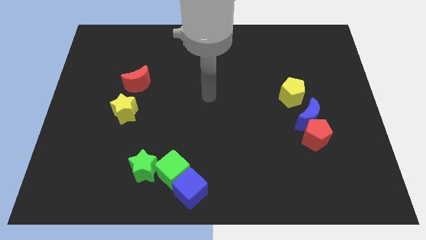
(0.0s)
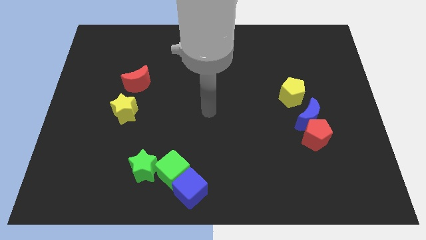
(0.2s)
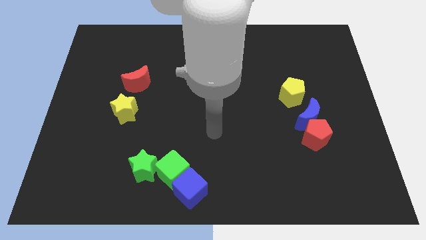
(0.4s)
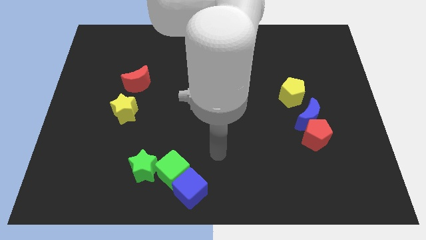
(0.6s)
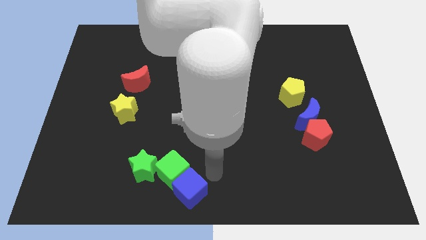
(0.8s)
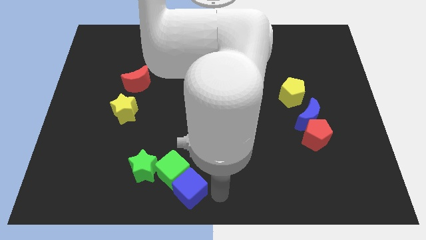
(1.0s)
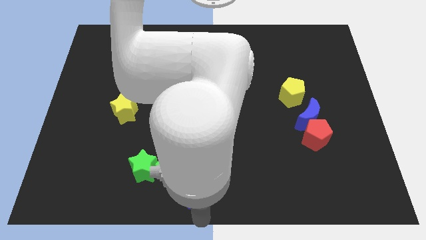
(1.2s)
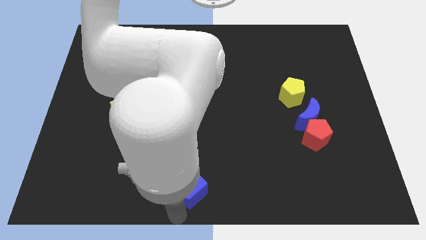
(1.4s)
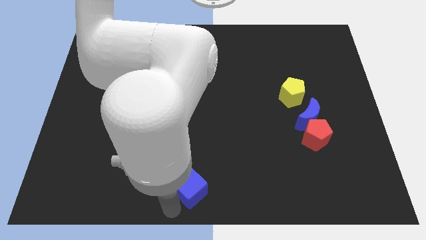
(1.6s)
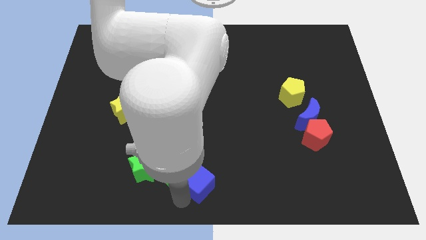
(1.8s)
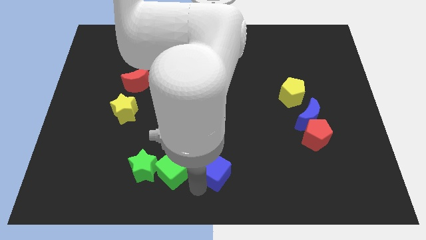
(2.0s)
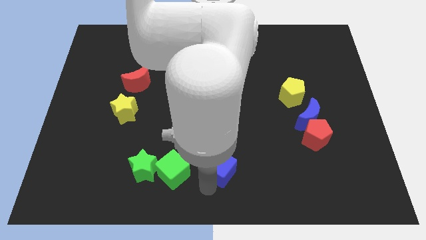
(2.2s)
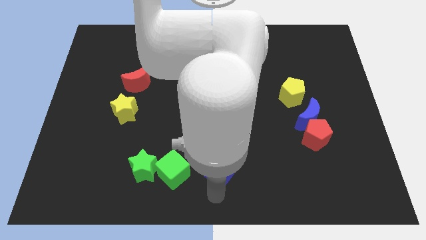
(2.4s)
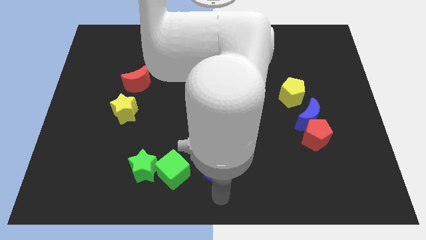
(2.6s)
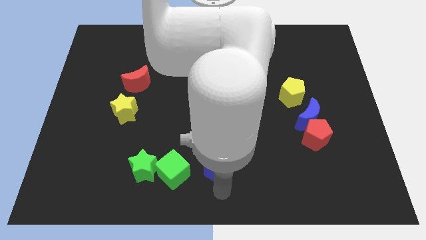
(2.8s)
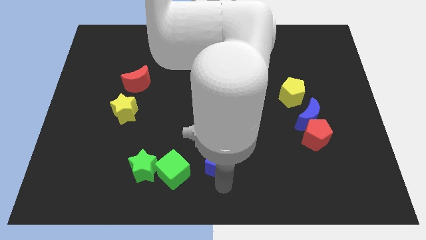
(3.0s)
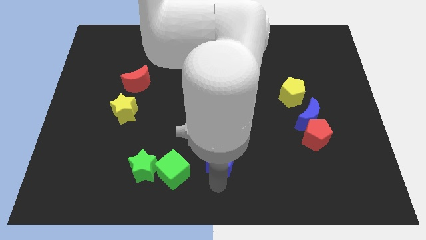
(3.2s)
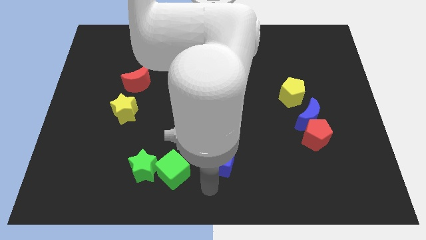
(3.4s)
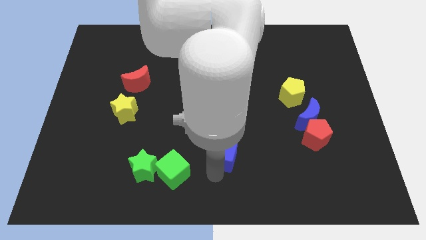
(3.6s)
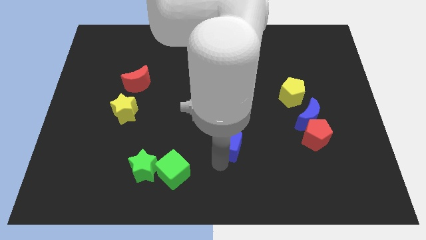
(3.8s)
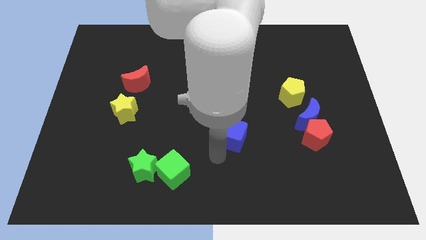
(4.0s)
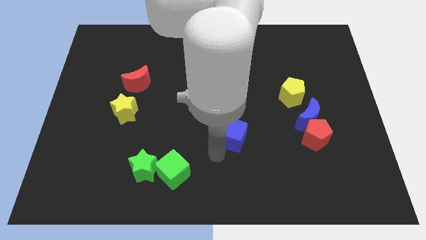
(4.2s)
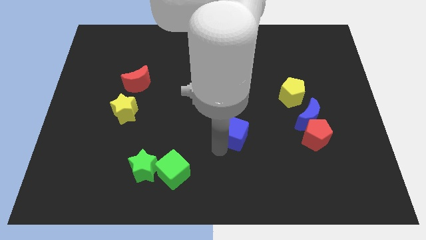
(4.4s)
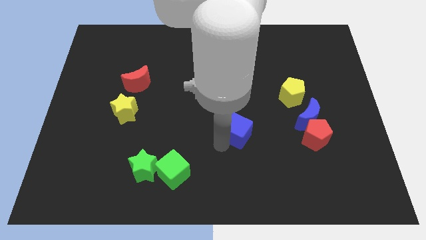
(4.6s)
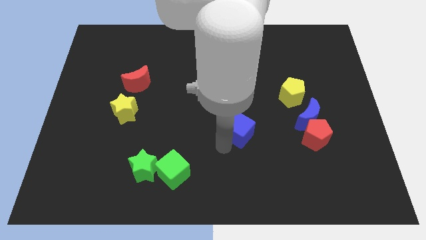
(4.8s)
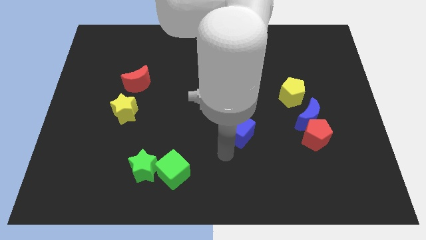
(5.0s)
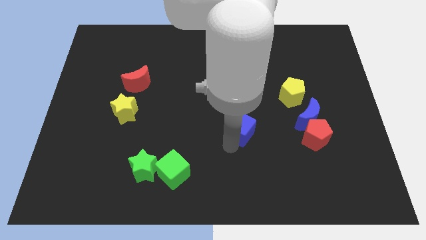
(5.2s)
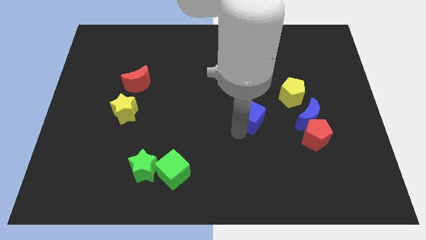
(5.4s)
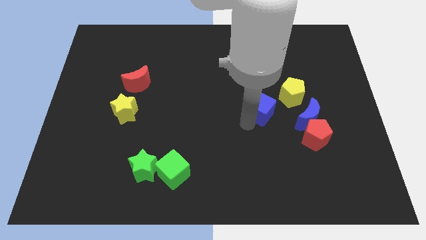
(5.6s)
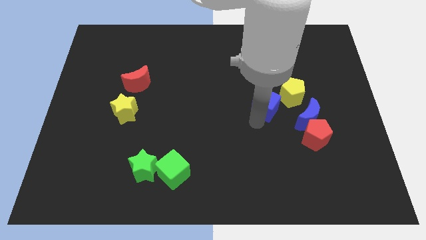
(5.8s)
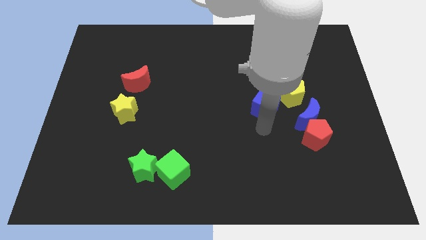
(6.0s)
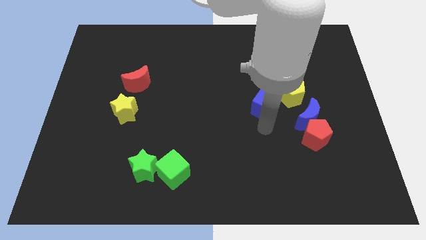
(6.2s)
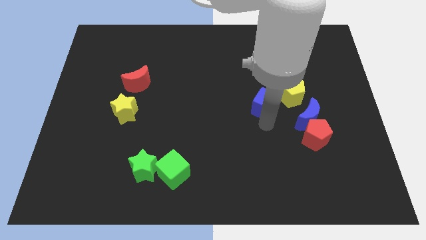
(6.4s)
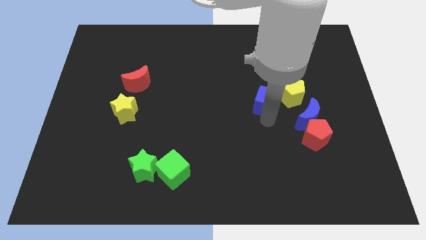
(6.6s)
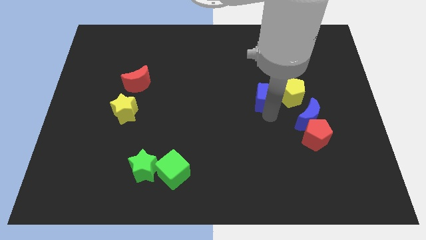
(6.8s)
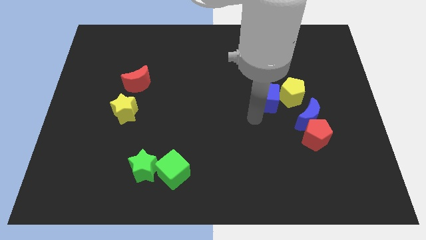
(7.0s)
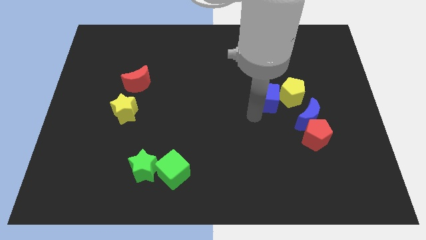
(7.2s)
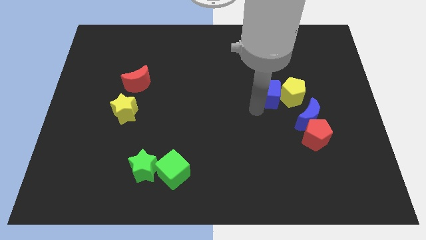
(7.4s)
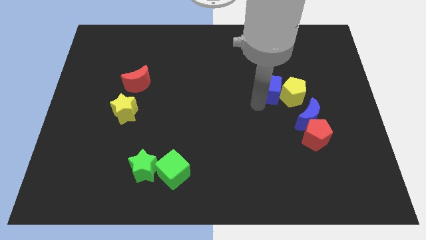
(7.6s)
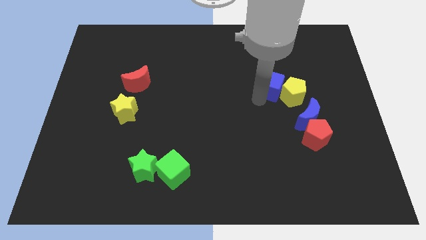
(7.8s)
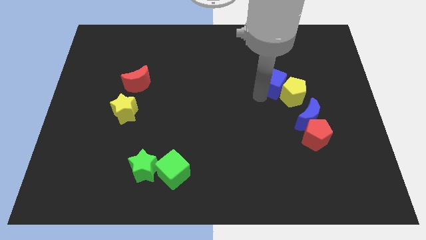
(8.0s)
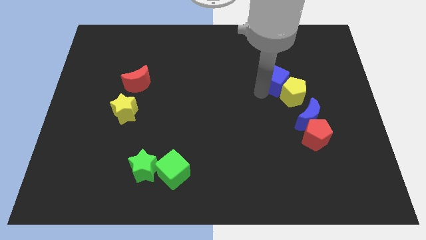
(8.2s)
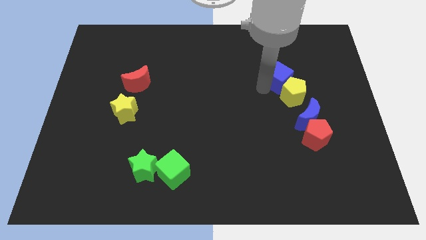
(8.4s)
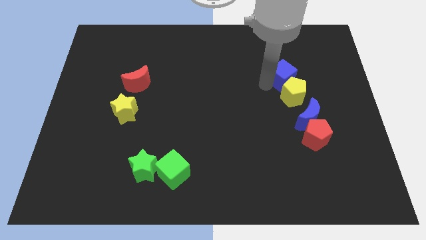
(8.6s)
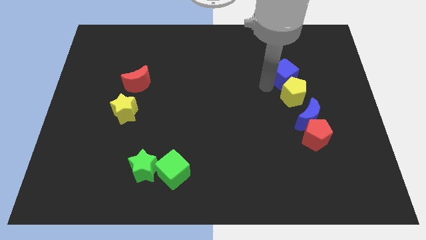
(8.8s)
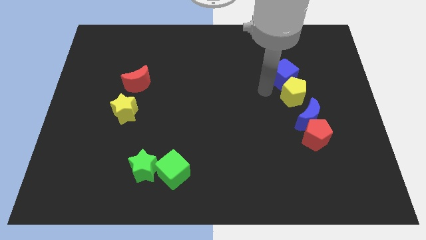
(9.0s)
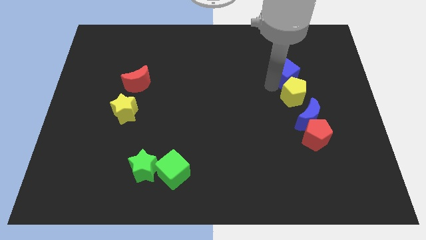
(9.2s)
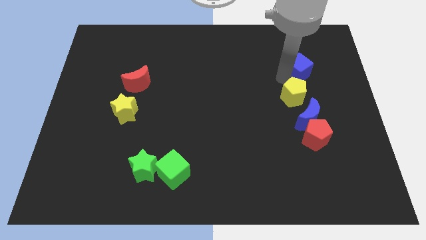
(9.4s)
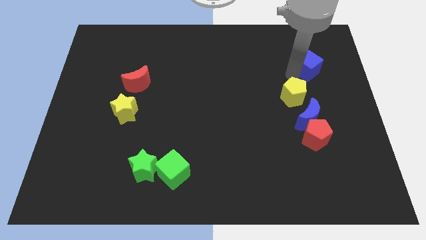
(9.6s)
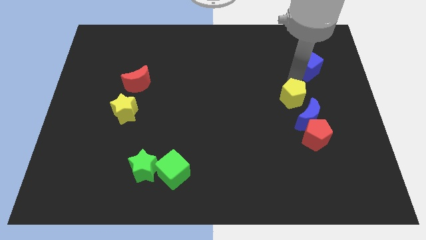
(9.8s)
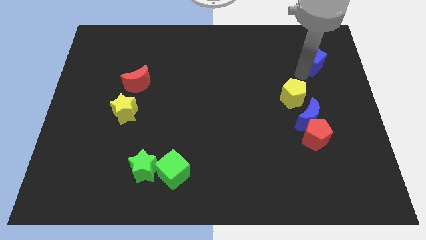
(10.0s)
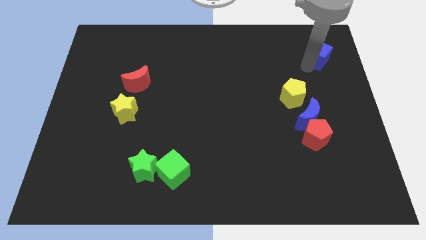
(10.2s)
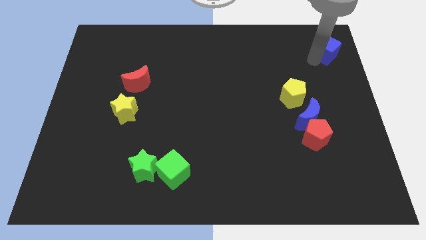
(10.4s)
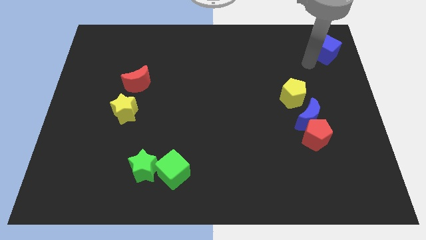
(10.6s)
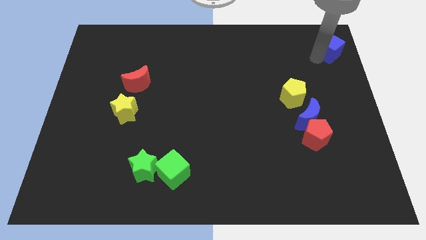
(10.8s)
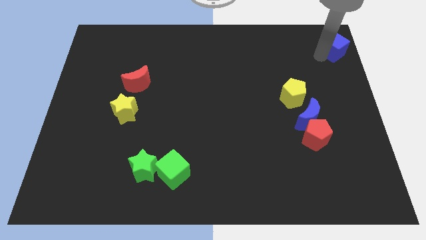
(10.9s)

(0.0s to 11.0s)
put the blue cube to the upper right corner
